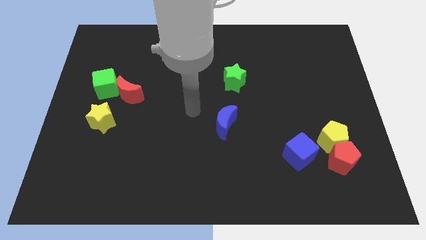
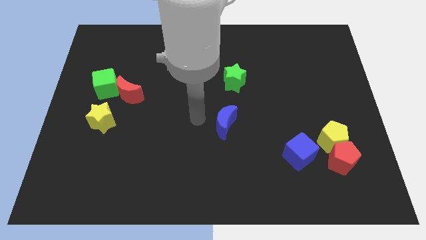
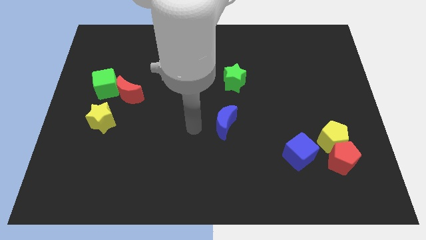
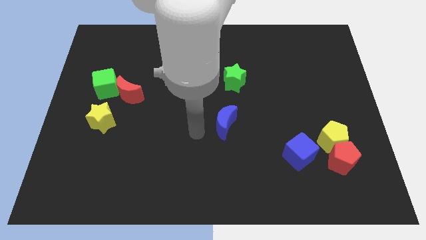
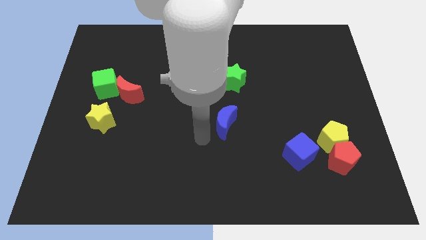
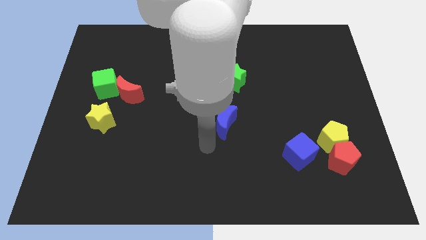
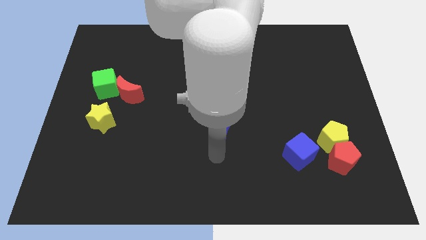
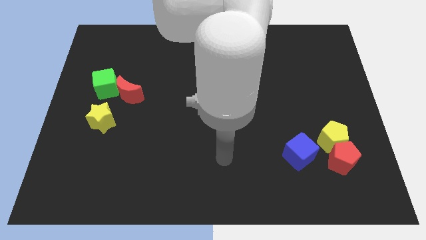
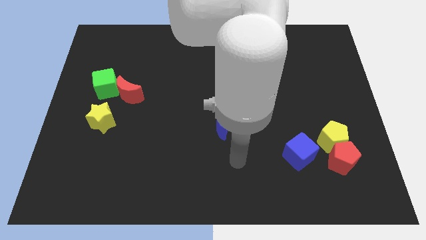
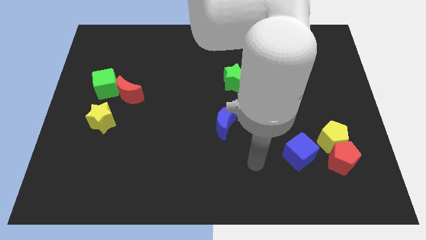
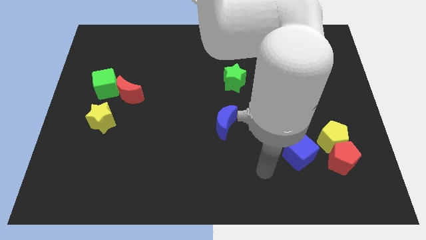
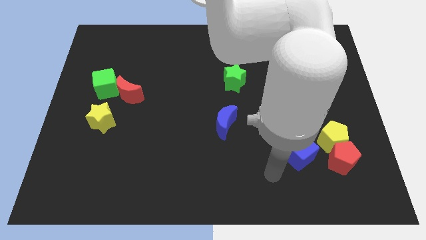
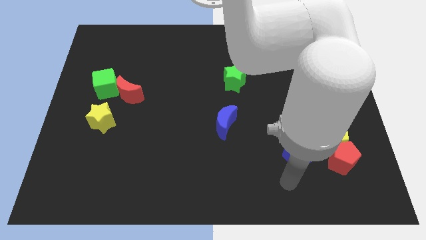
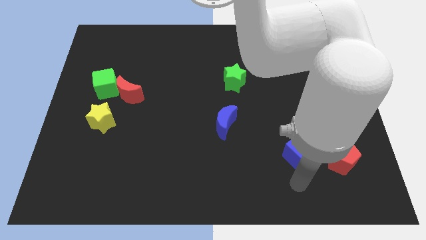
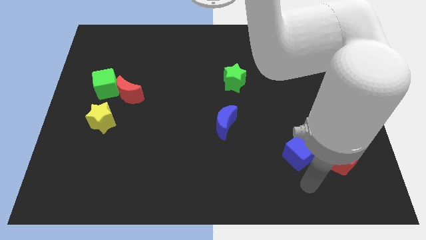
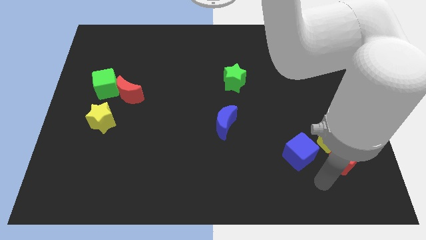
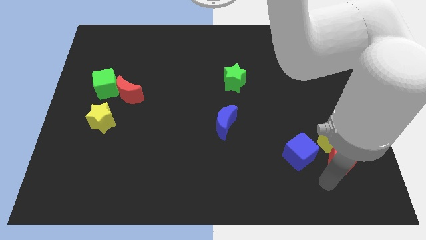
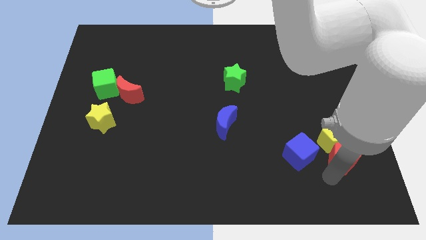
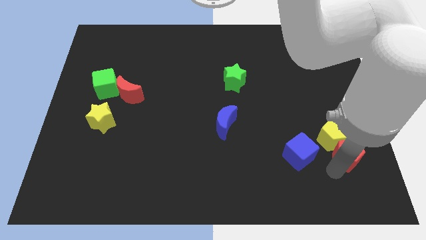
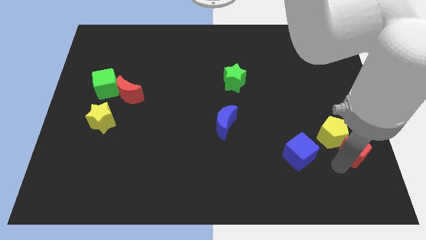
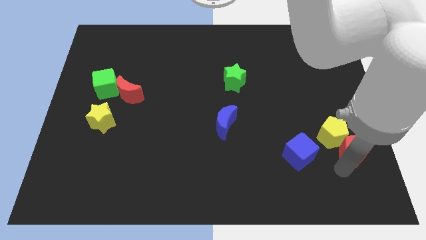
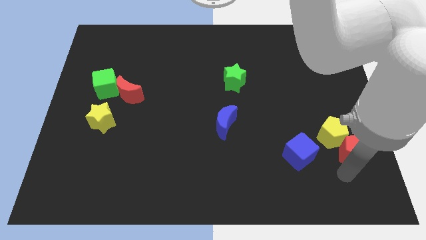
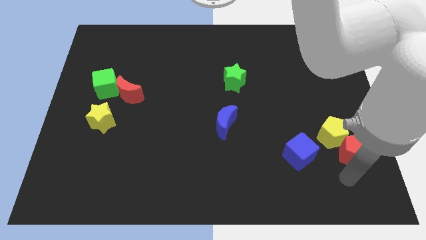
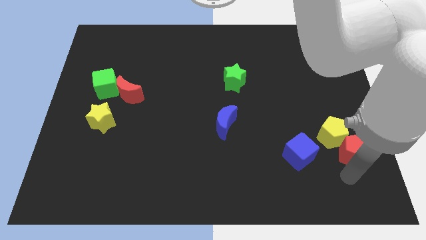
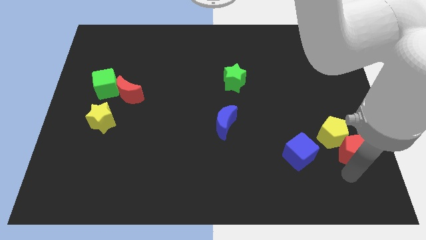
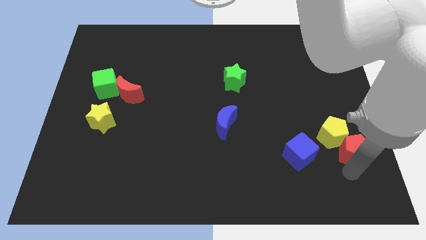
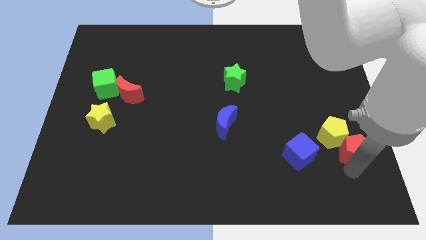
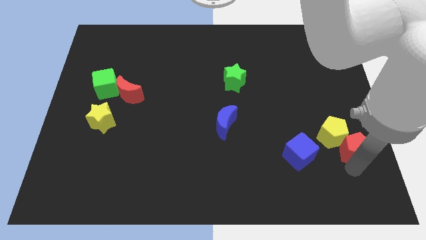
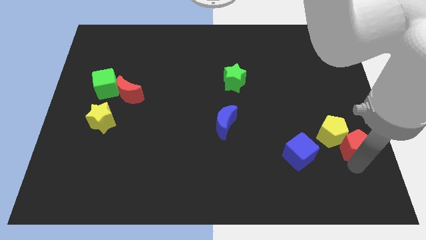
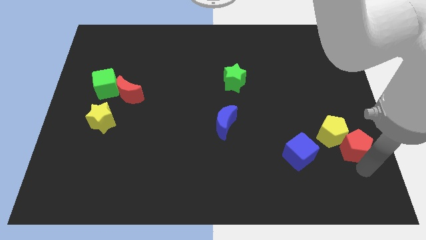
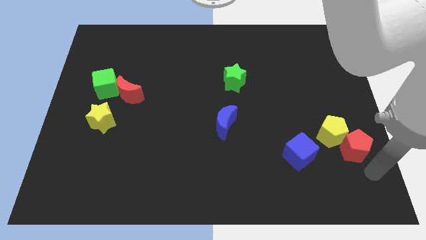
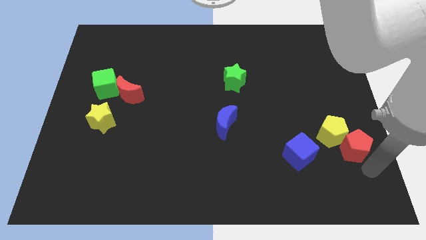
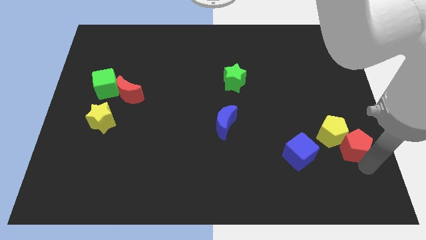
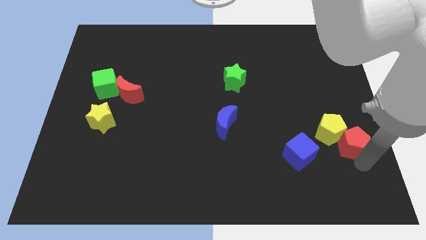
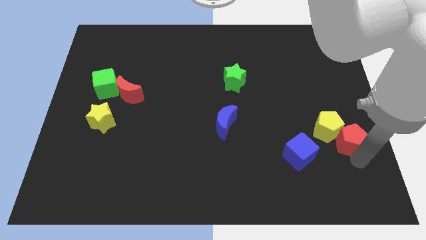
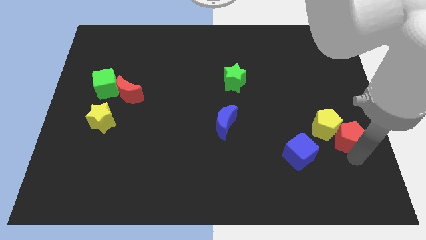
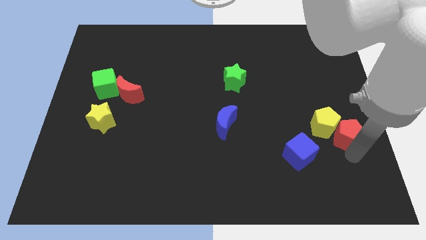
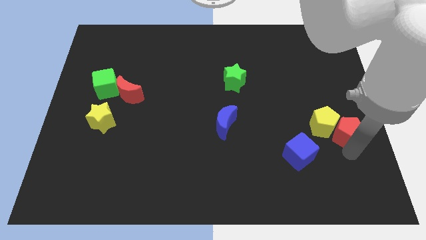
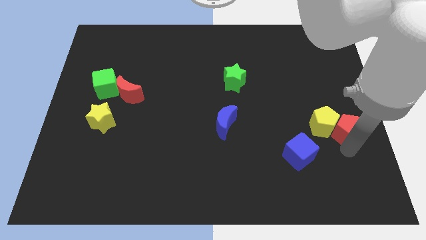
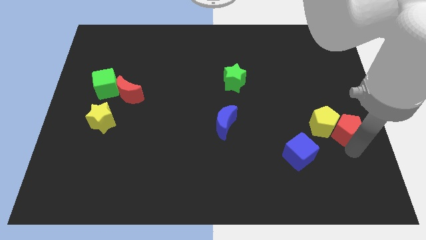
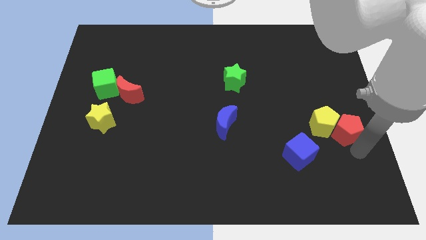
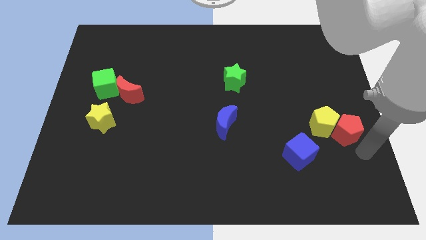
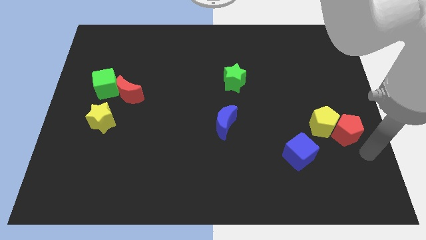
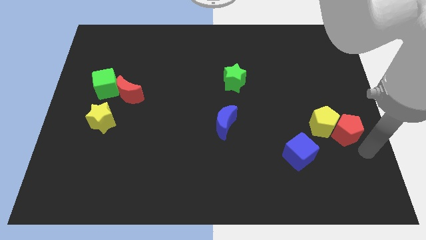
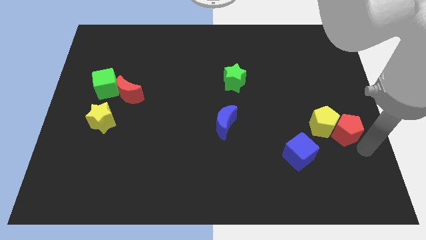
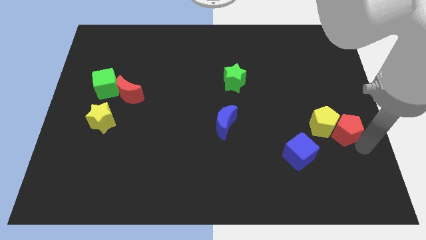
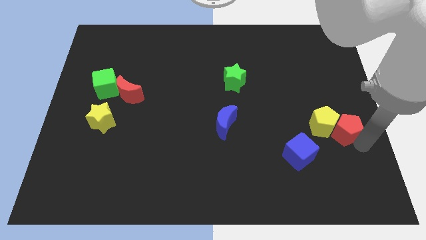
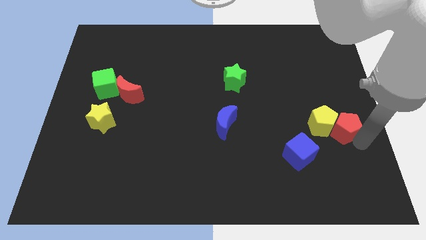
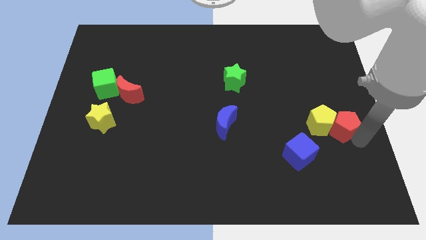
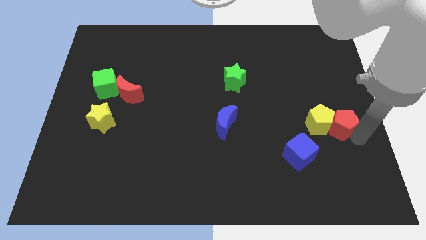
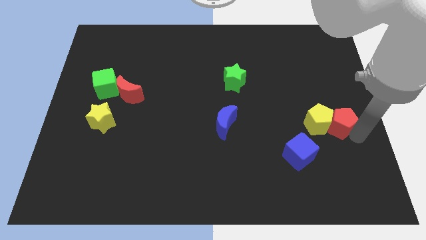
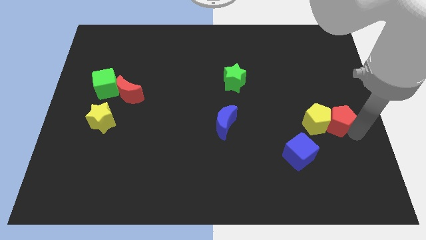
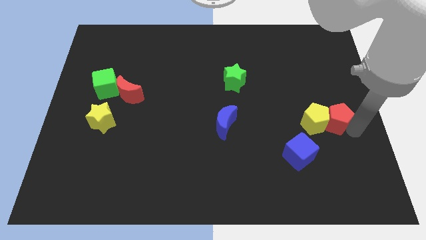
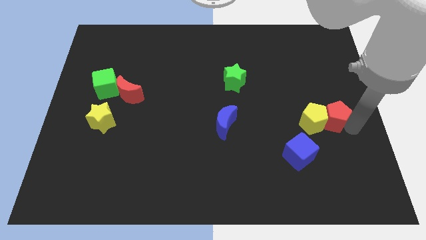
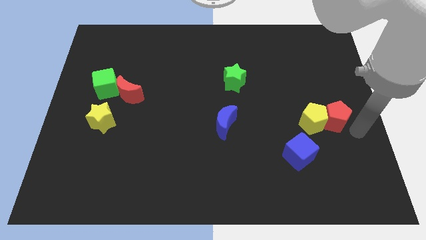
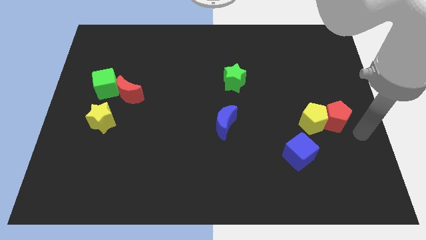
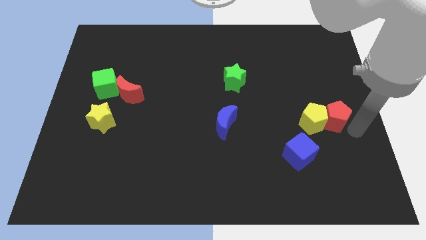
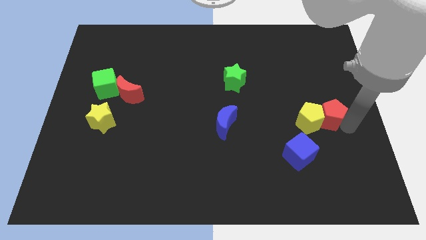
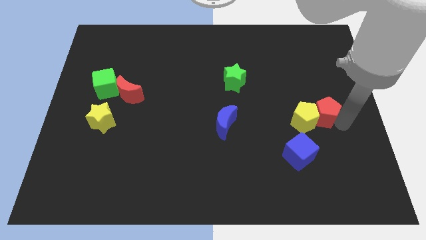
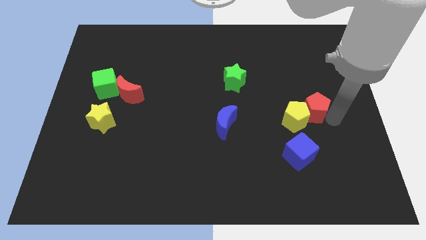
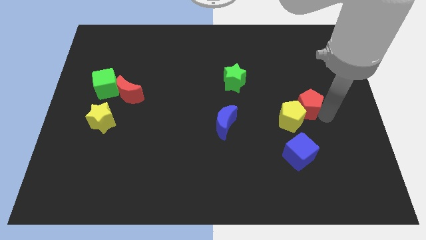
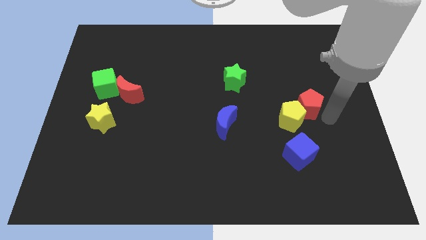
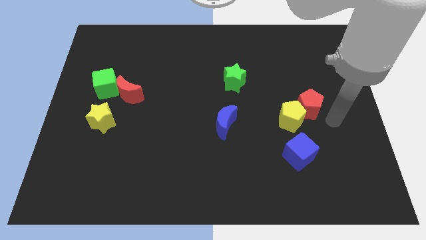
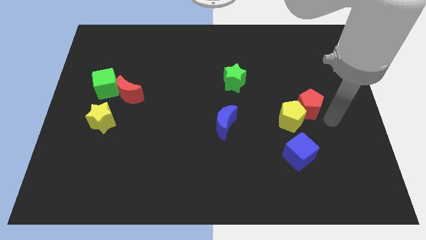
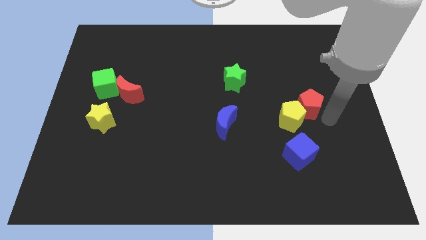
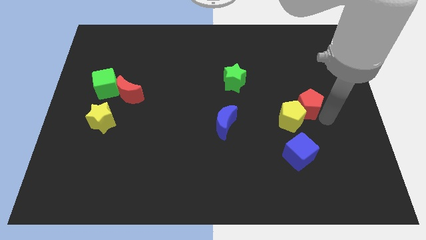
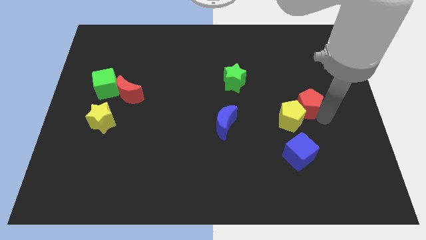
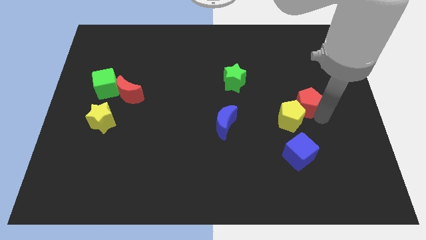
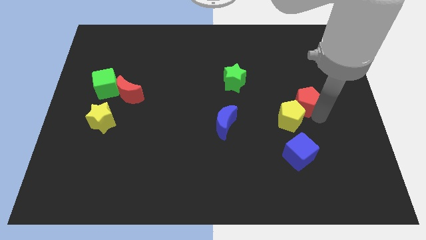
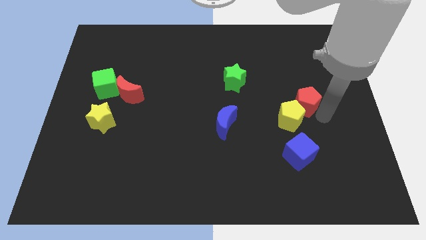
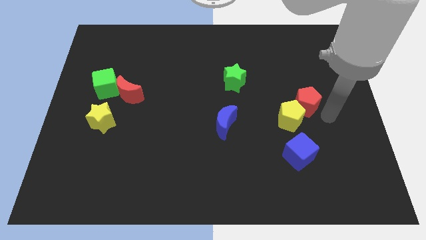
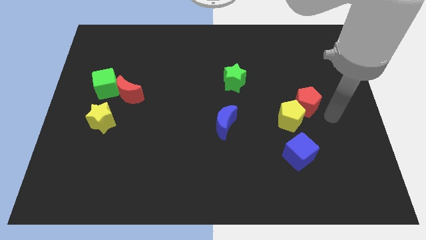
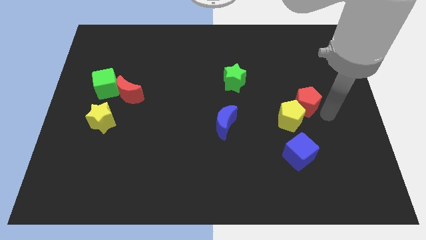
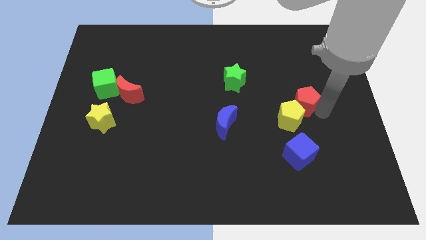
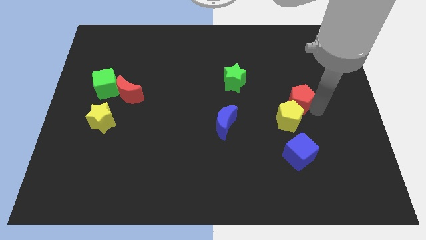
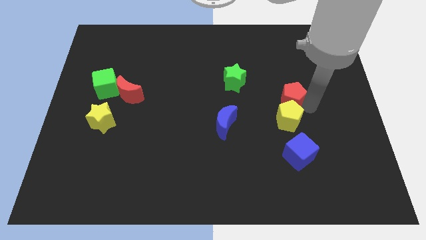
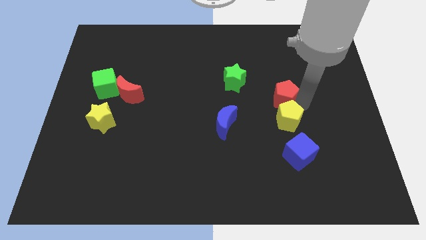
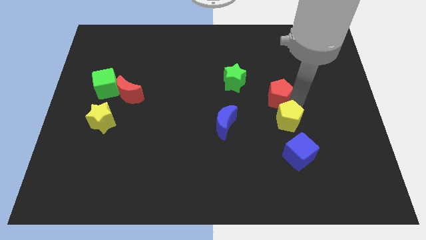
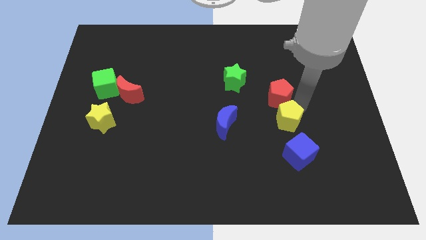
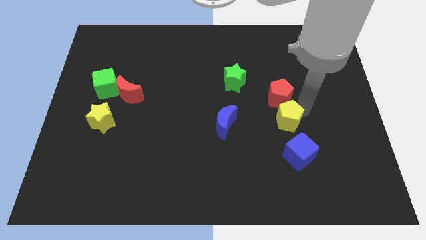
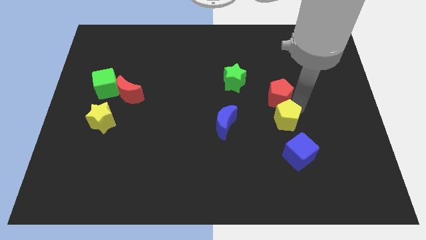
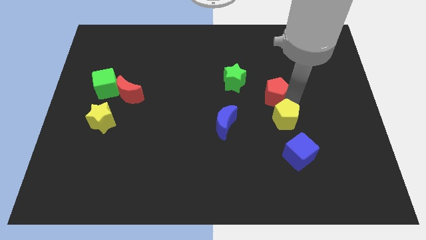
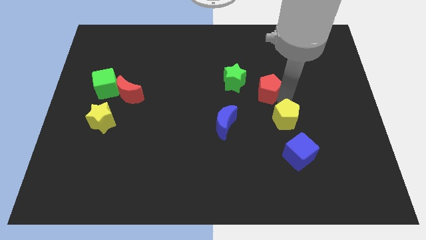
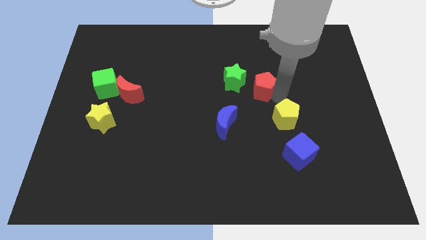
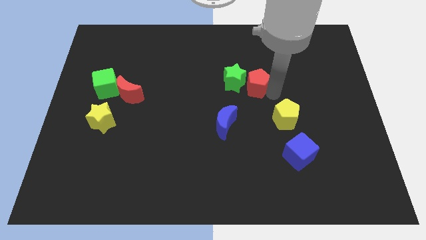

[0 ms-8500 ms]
put the red pentagon towards the green star
